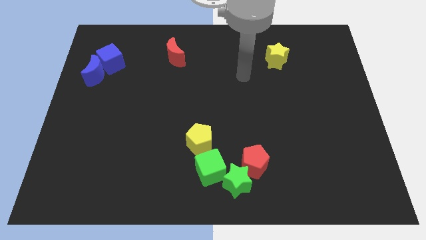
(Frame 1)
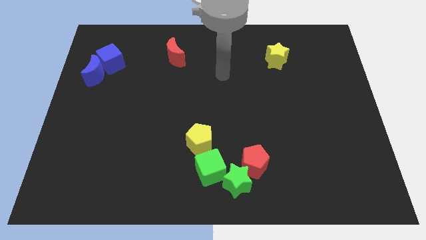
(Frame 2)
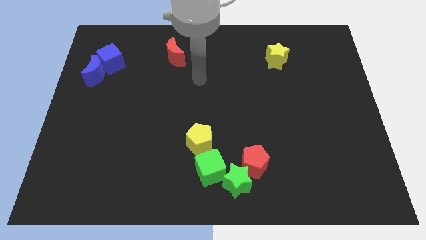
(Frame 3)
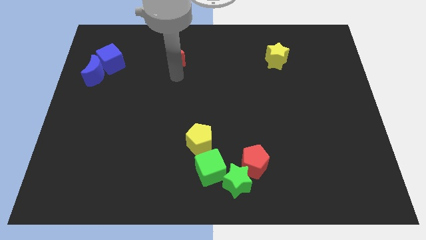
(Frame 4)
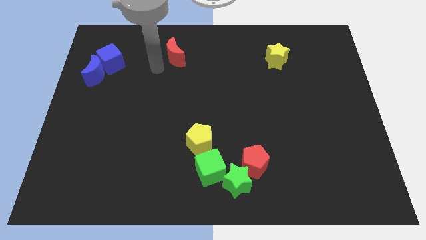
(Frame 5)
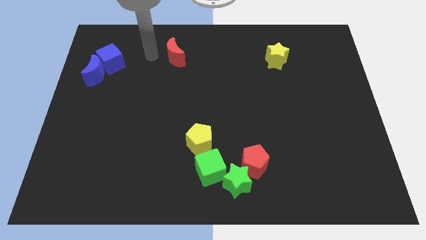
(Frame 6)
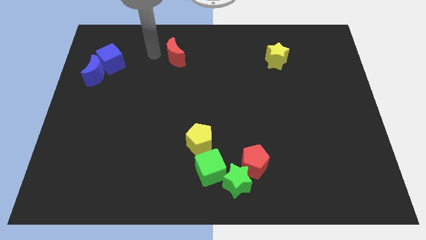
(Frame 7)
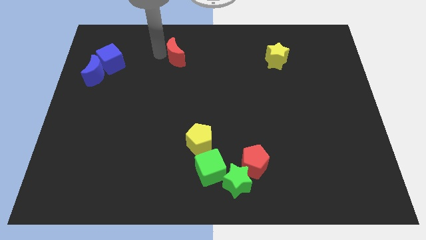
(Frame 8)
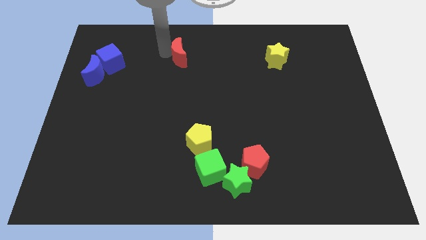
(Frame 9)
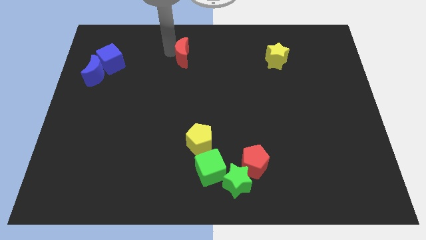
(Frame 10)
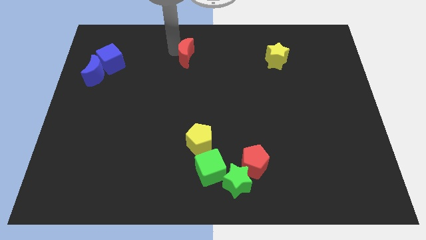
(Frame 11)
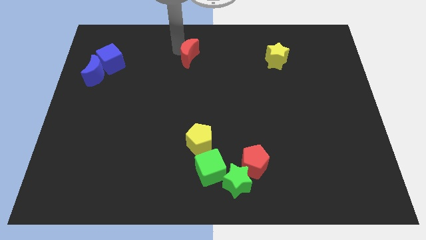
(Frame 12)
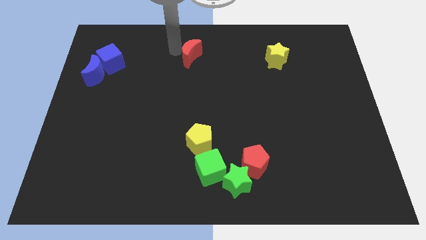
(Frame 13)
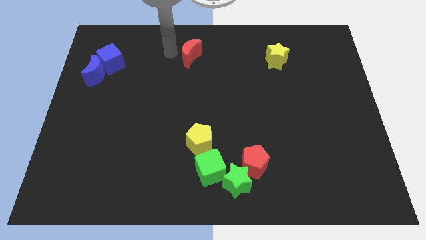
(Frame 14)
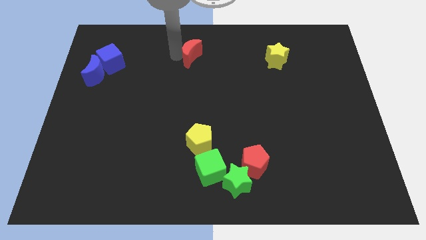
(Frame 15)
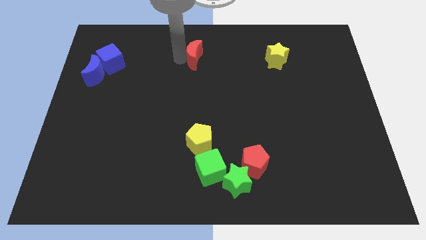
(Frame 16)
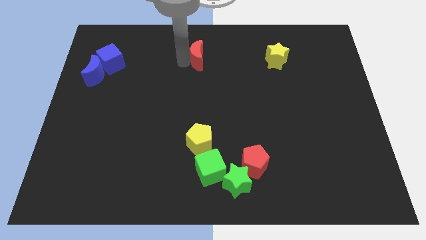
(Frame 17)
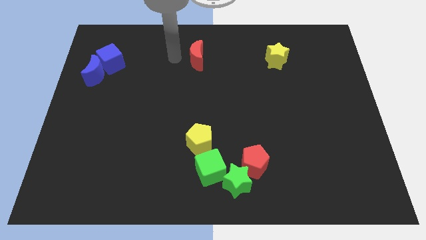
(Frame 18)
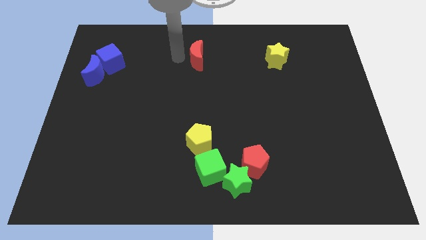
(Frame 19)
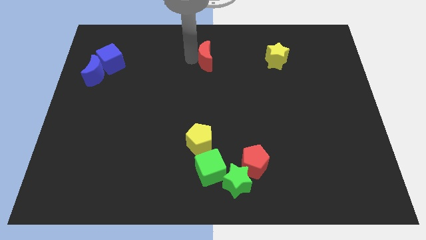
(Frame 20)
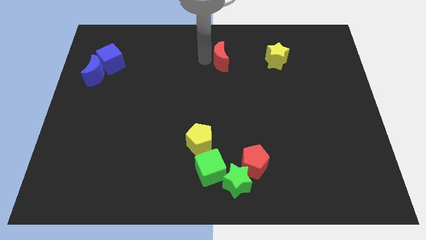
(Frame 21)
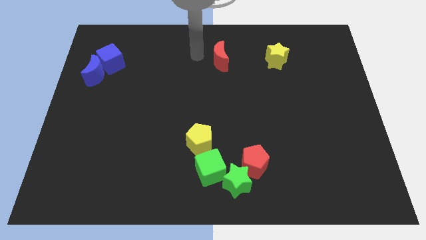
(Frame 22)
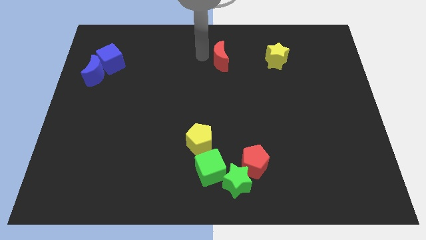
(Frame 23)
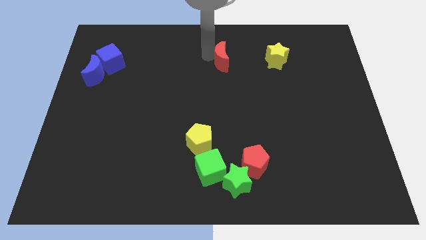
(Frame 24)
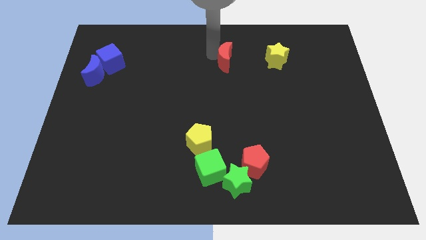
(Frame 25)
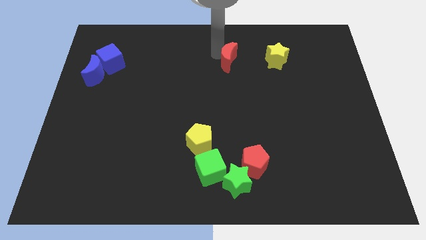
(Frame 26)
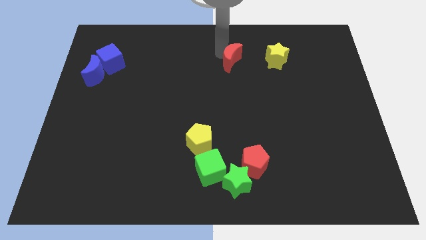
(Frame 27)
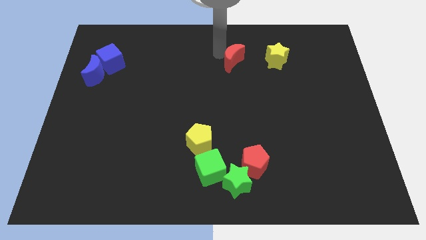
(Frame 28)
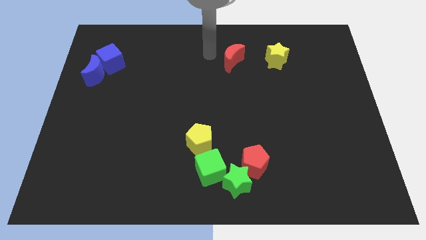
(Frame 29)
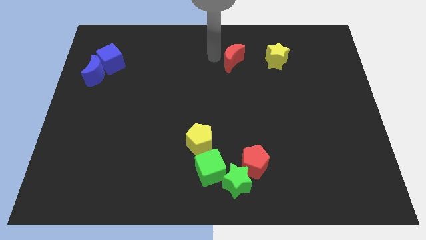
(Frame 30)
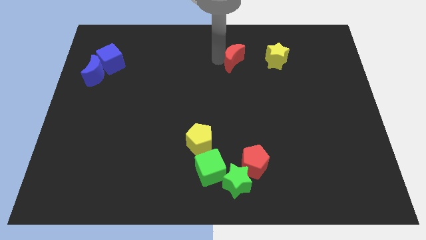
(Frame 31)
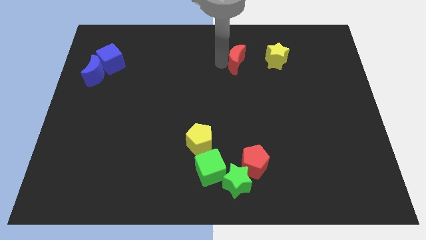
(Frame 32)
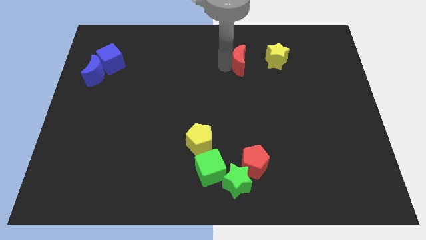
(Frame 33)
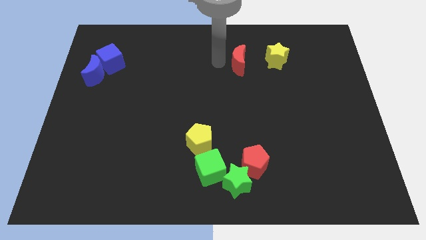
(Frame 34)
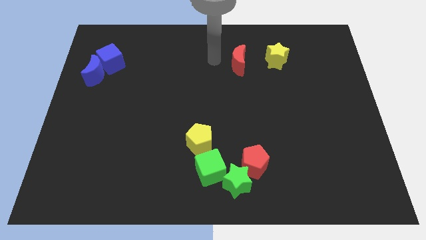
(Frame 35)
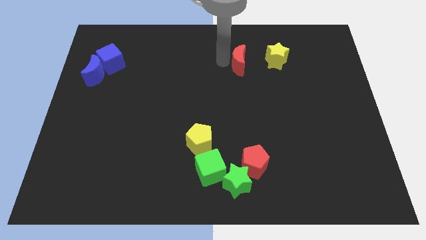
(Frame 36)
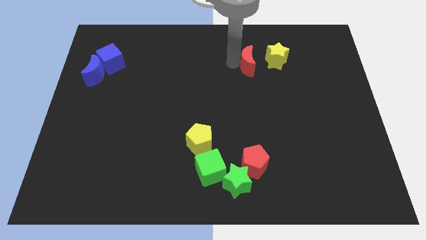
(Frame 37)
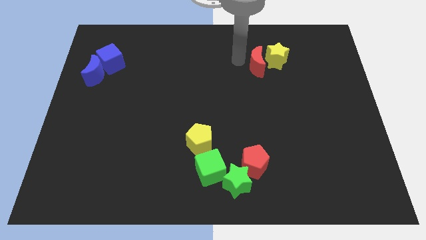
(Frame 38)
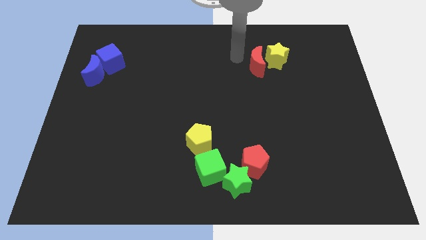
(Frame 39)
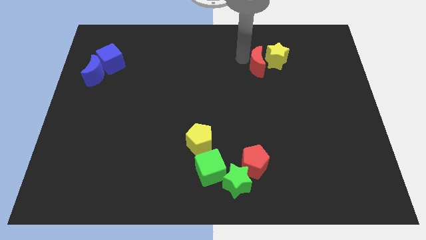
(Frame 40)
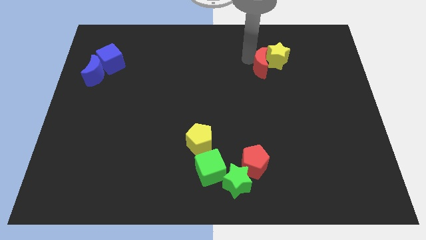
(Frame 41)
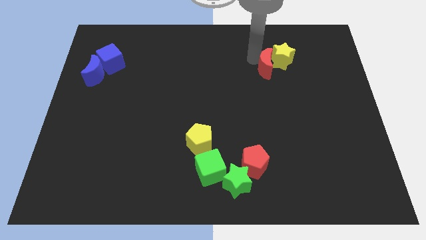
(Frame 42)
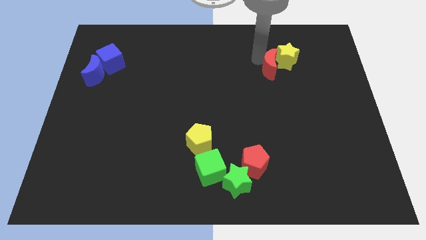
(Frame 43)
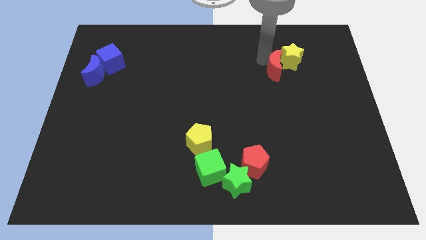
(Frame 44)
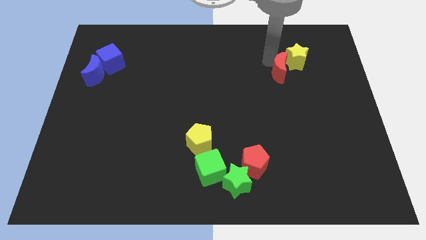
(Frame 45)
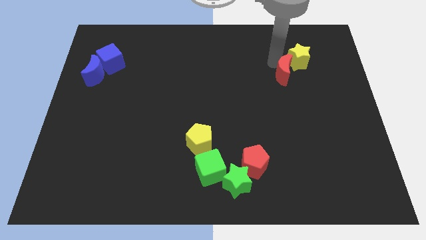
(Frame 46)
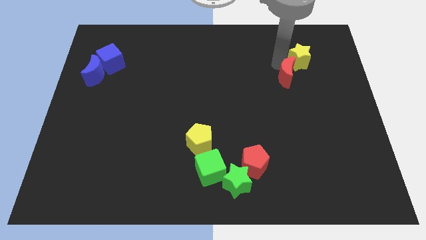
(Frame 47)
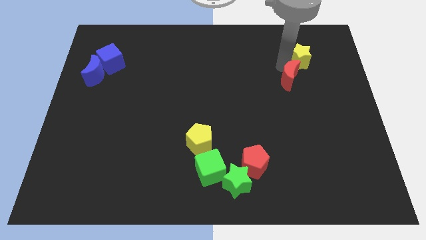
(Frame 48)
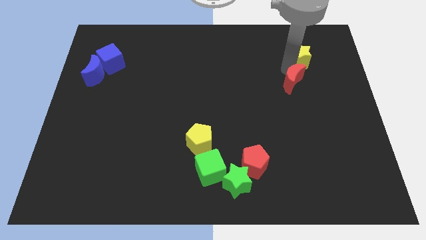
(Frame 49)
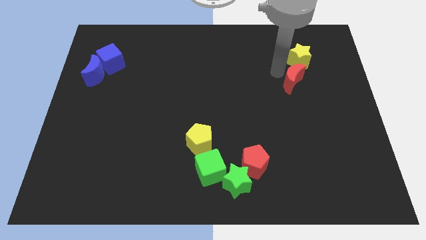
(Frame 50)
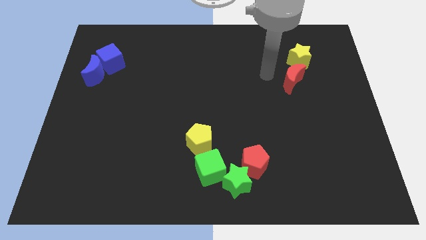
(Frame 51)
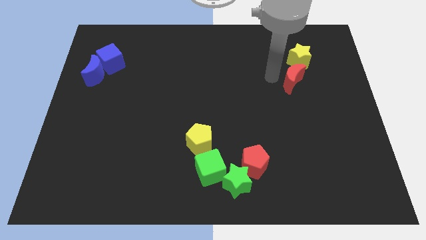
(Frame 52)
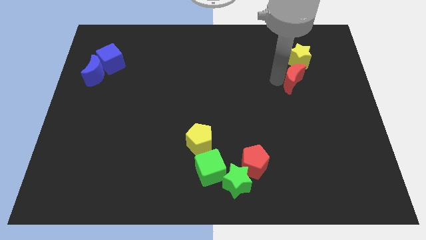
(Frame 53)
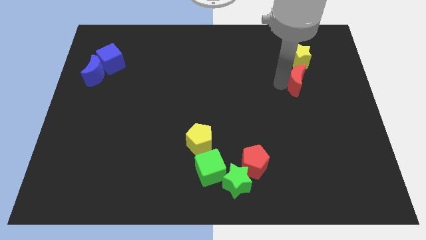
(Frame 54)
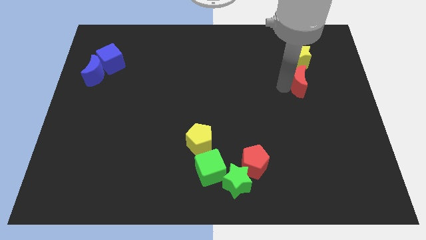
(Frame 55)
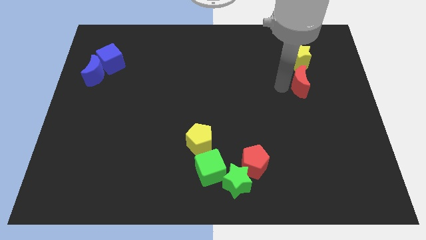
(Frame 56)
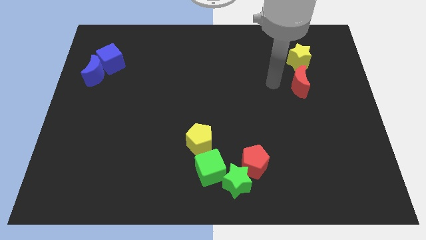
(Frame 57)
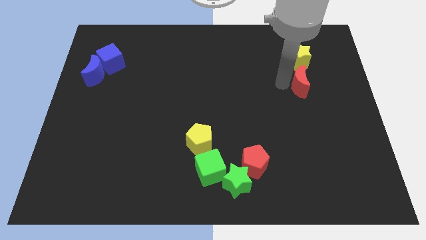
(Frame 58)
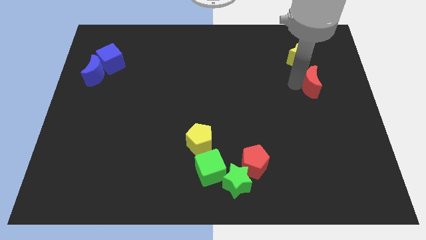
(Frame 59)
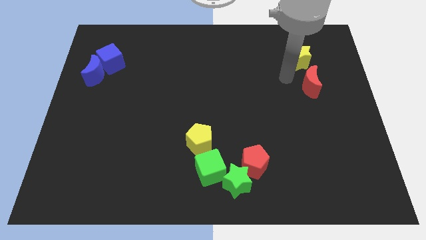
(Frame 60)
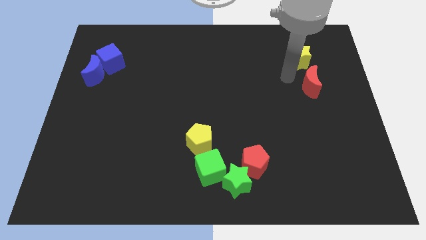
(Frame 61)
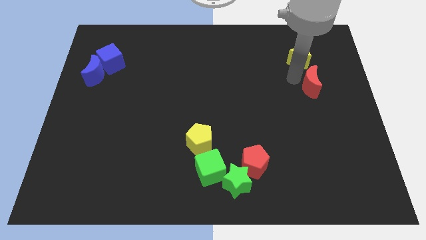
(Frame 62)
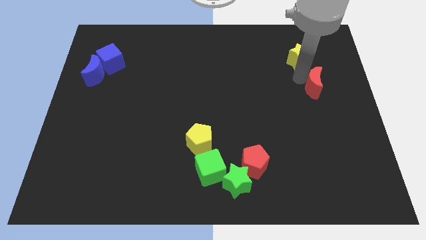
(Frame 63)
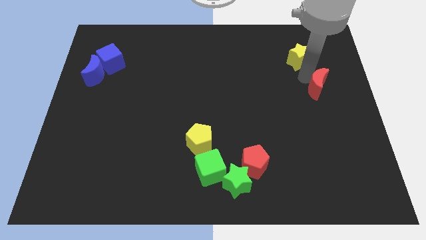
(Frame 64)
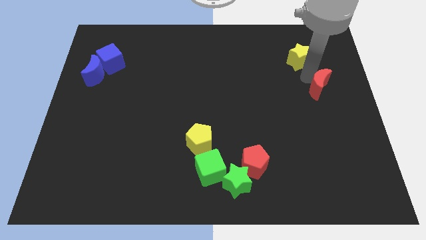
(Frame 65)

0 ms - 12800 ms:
push the red moon to the right side
